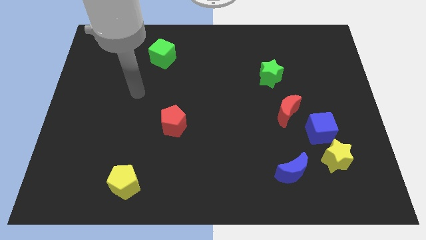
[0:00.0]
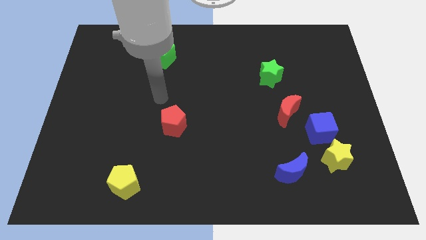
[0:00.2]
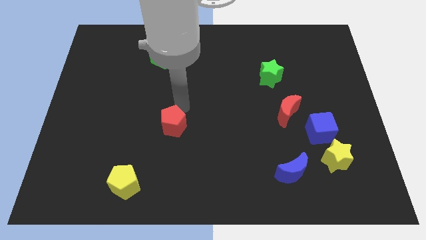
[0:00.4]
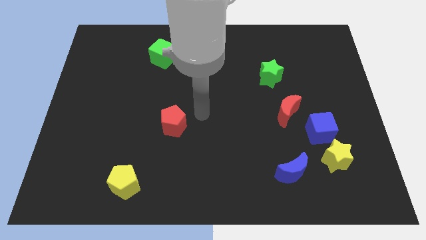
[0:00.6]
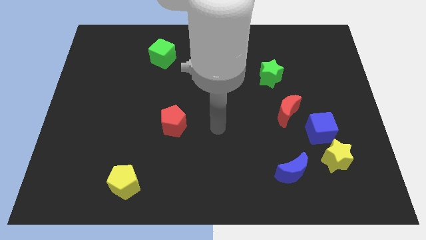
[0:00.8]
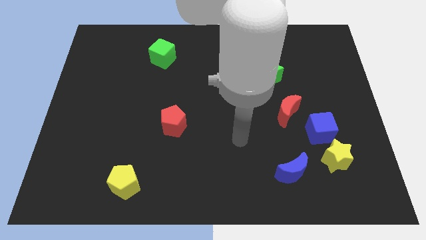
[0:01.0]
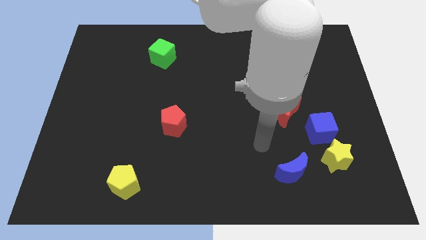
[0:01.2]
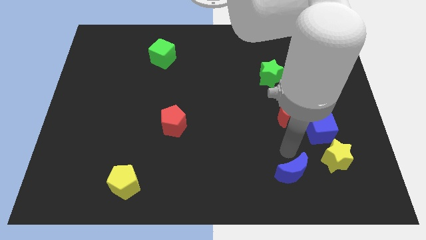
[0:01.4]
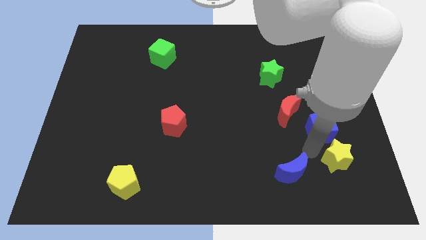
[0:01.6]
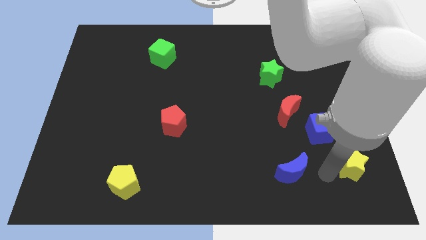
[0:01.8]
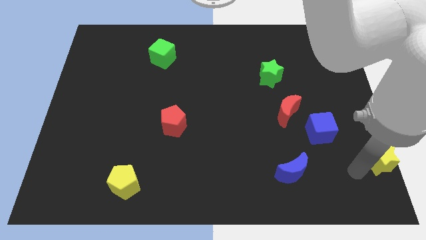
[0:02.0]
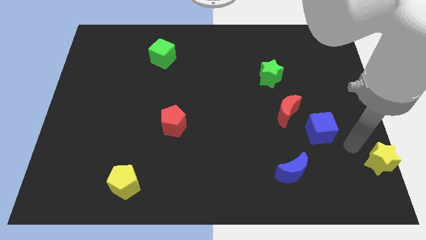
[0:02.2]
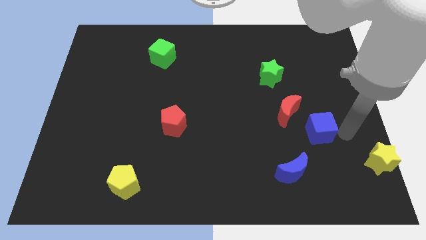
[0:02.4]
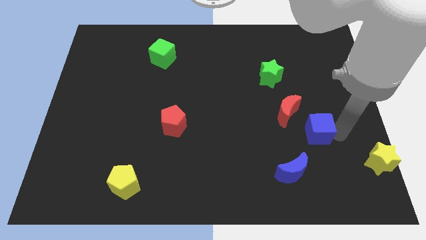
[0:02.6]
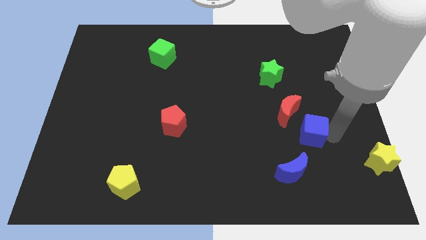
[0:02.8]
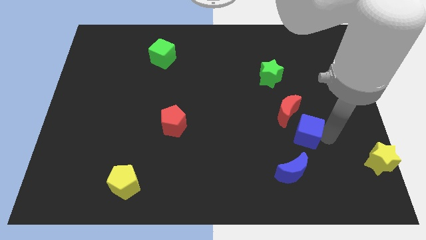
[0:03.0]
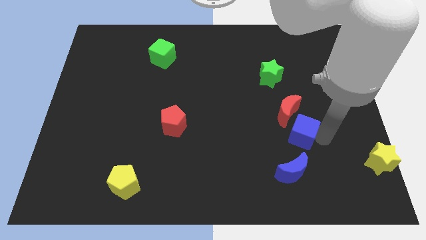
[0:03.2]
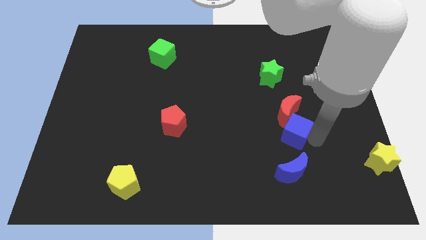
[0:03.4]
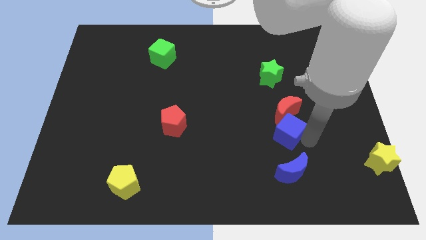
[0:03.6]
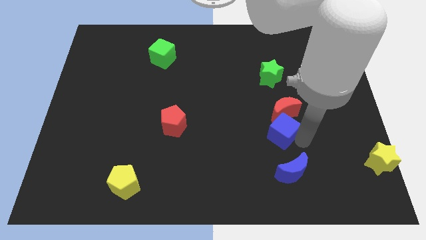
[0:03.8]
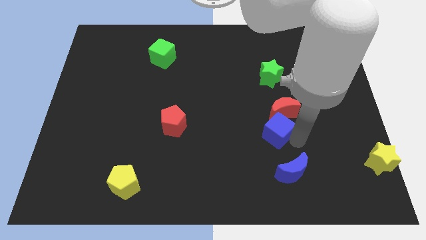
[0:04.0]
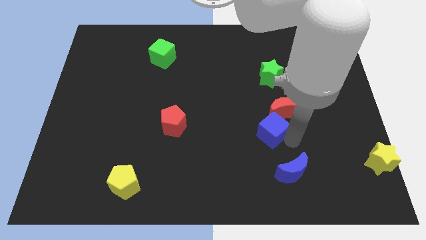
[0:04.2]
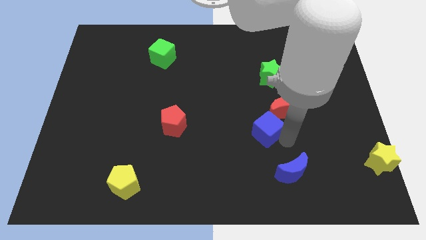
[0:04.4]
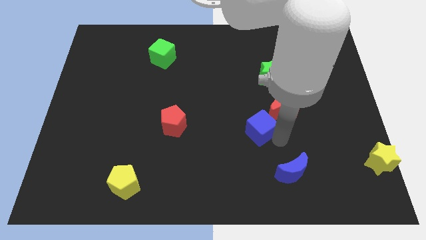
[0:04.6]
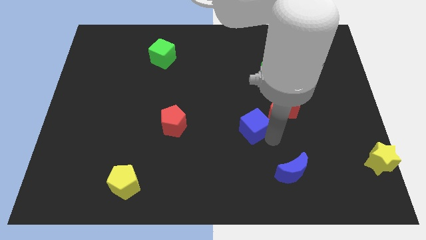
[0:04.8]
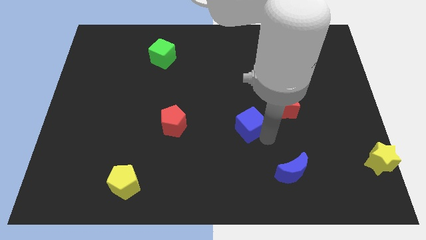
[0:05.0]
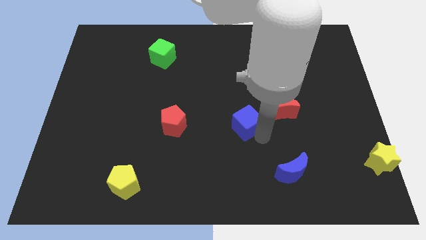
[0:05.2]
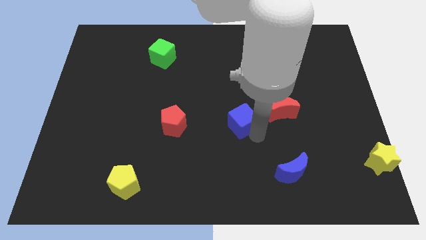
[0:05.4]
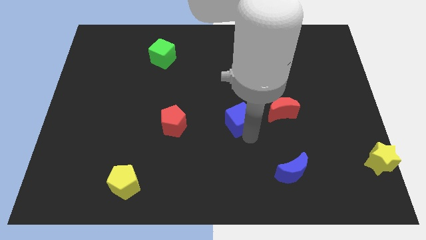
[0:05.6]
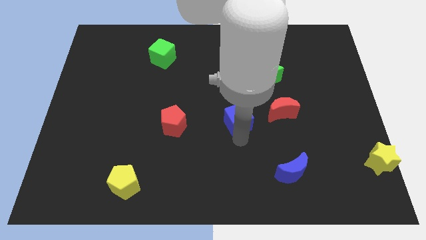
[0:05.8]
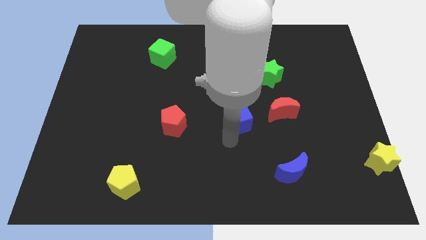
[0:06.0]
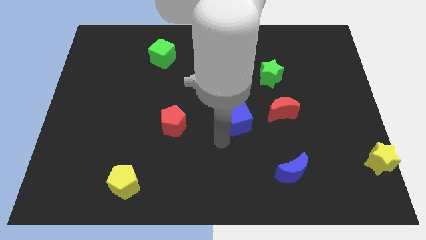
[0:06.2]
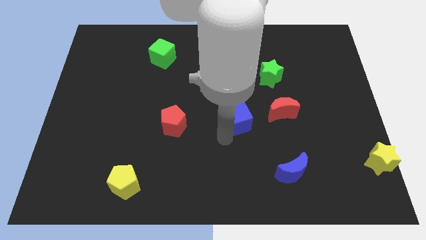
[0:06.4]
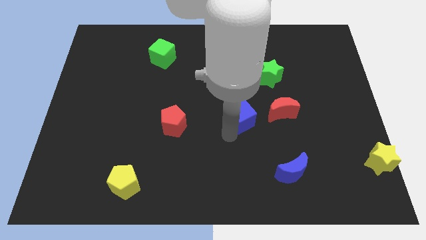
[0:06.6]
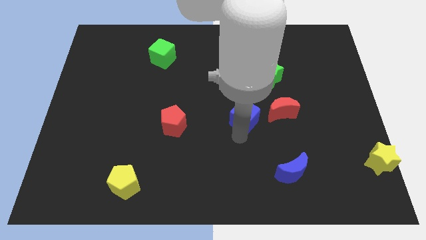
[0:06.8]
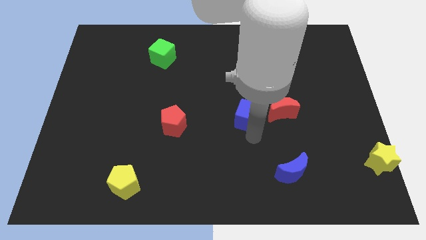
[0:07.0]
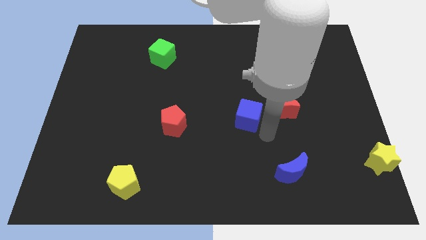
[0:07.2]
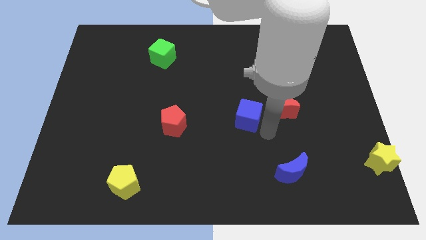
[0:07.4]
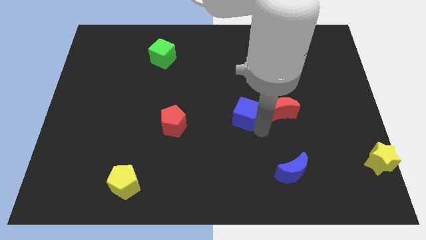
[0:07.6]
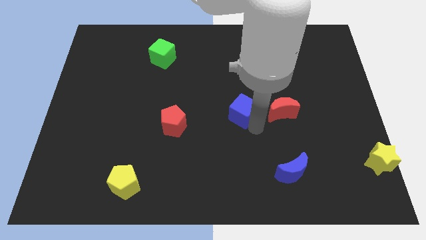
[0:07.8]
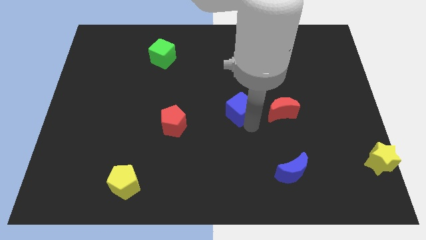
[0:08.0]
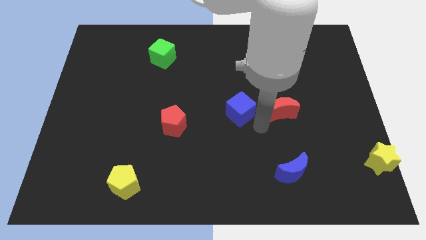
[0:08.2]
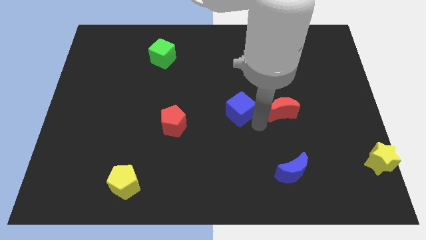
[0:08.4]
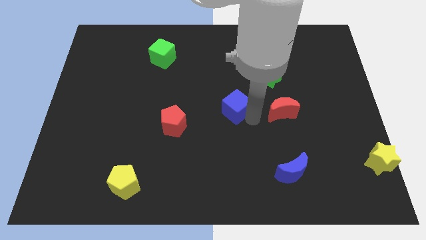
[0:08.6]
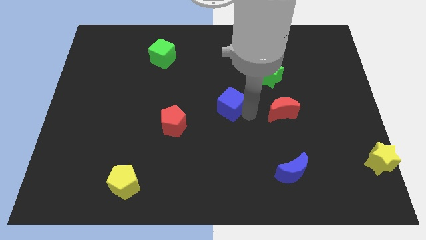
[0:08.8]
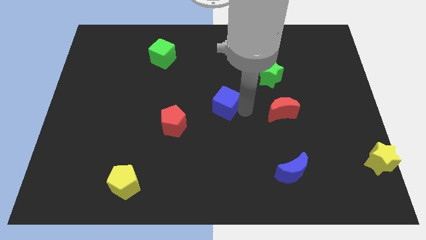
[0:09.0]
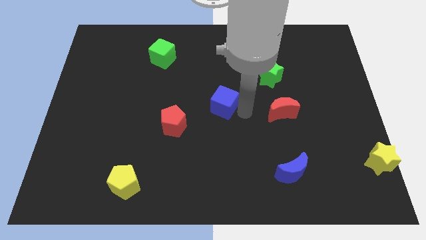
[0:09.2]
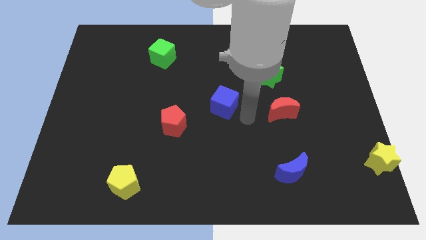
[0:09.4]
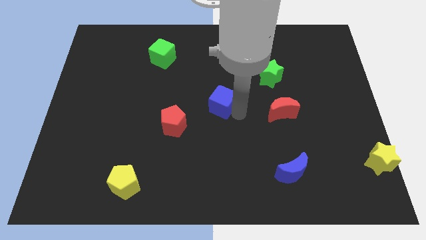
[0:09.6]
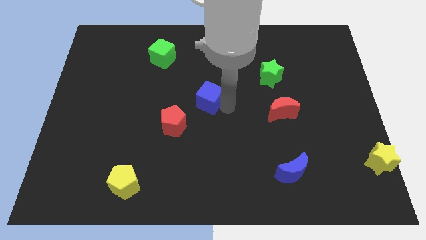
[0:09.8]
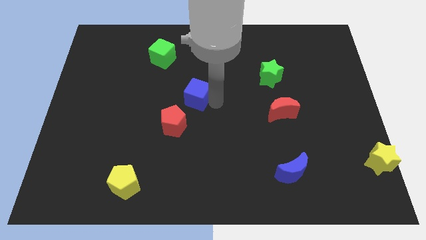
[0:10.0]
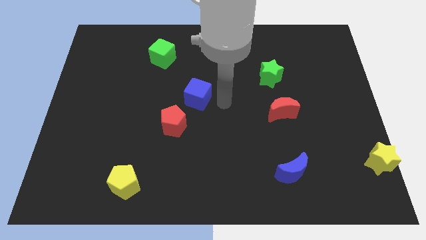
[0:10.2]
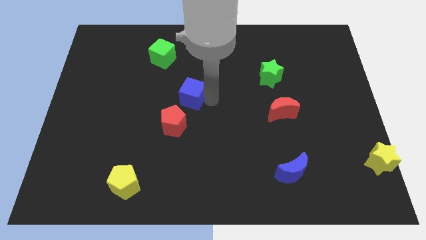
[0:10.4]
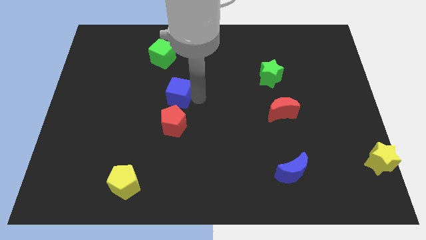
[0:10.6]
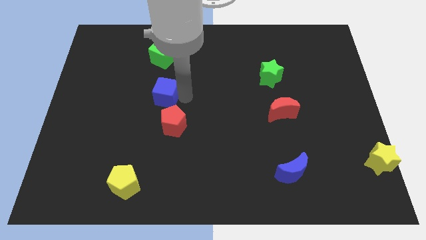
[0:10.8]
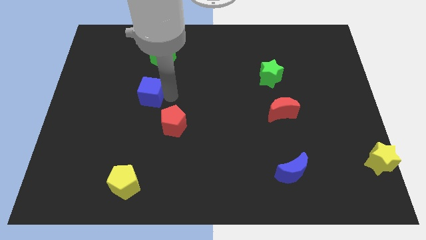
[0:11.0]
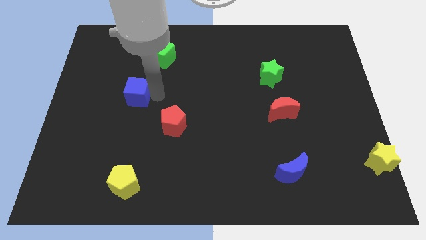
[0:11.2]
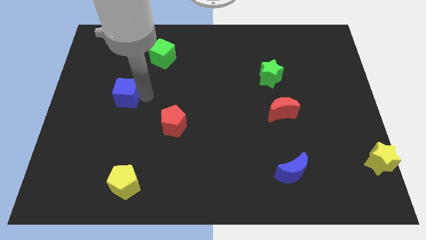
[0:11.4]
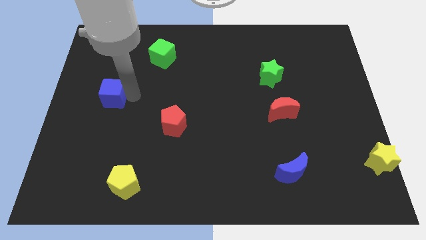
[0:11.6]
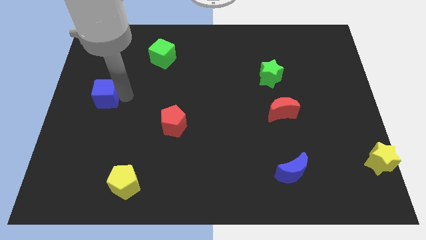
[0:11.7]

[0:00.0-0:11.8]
move the blue cube to the left side of the board
